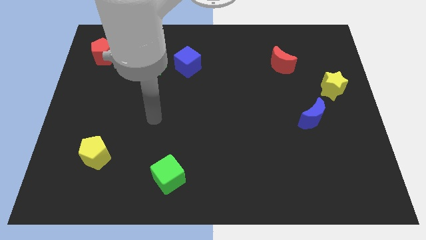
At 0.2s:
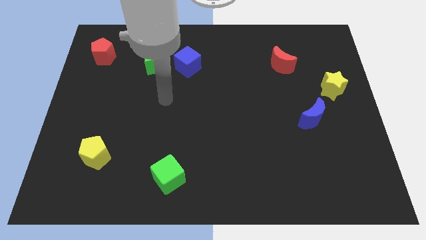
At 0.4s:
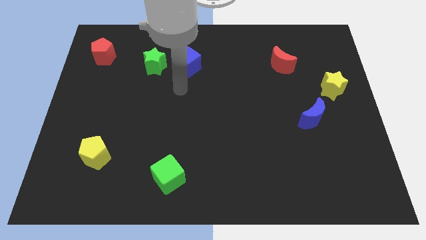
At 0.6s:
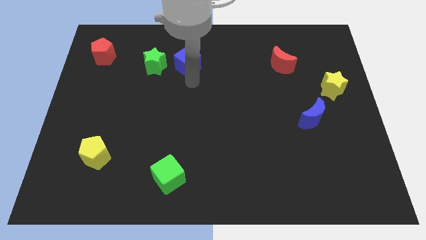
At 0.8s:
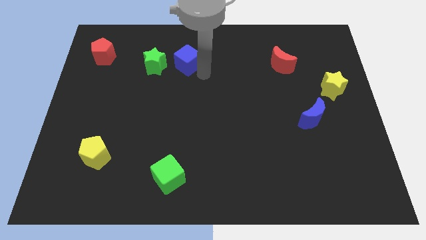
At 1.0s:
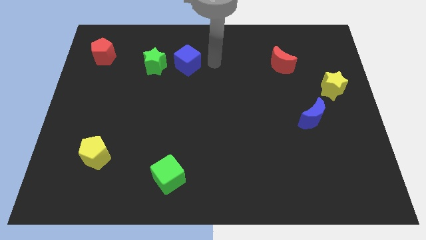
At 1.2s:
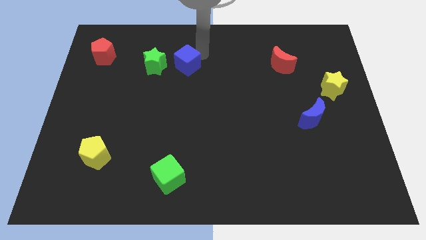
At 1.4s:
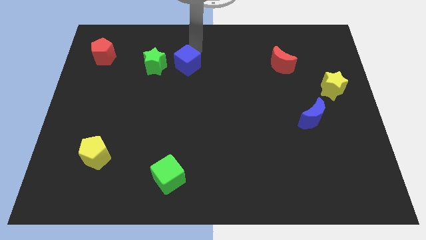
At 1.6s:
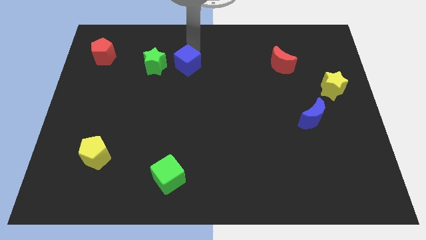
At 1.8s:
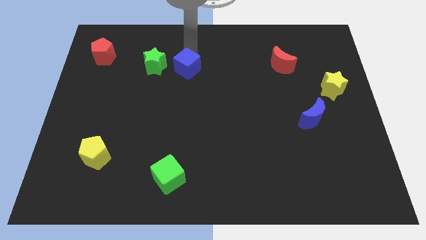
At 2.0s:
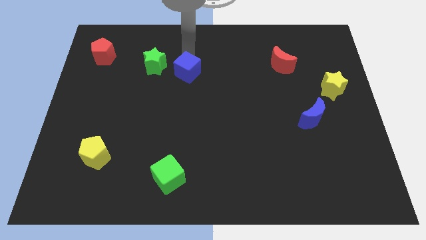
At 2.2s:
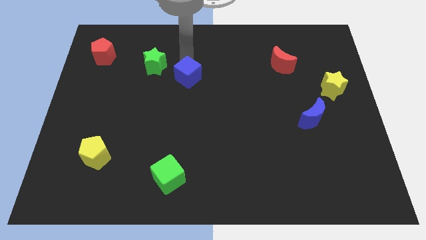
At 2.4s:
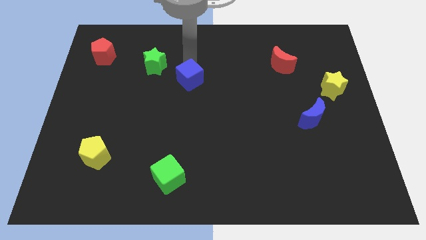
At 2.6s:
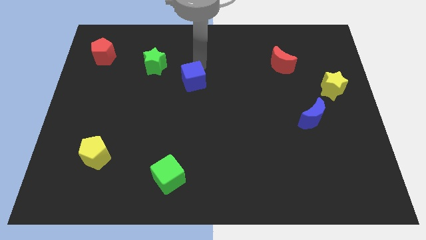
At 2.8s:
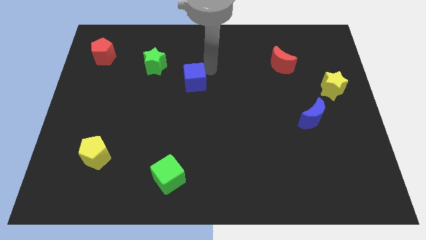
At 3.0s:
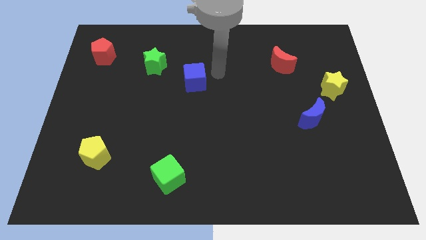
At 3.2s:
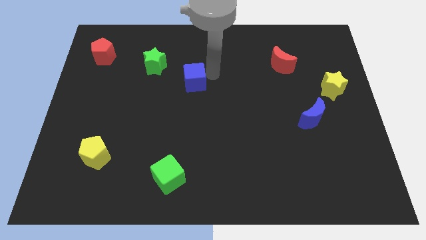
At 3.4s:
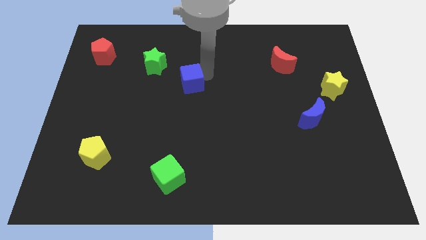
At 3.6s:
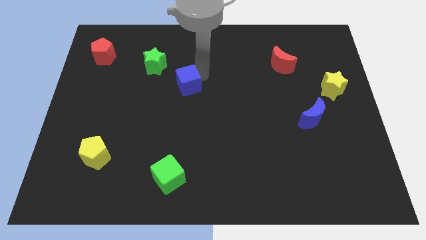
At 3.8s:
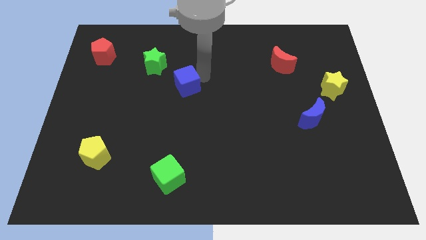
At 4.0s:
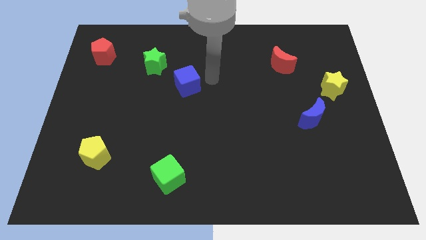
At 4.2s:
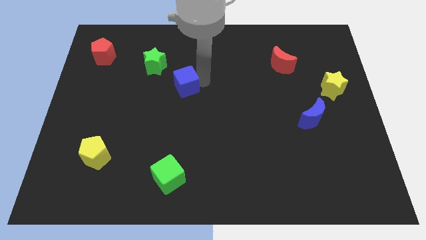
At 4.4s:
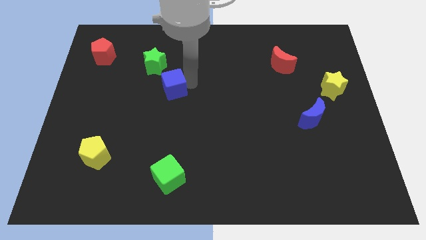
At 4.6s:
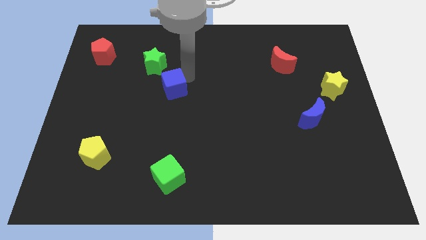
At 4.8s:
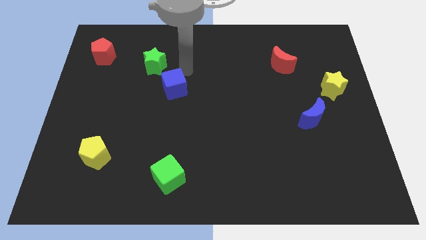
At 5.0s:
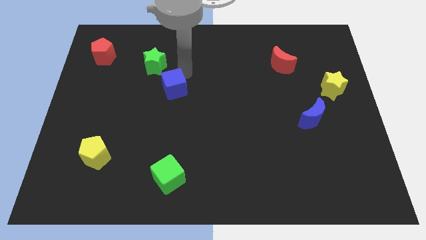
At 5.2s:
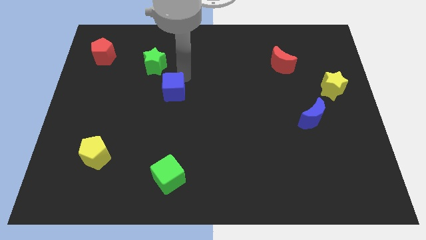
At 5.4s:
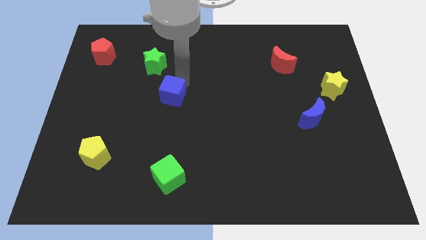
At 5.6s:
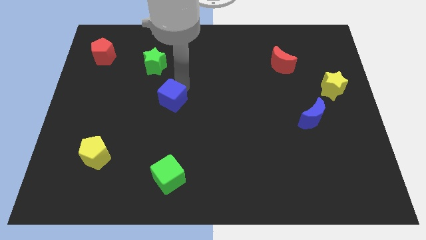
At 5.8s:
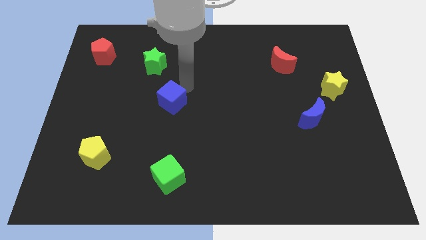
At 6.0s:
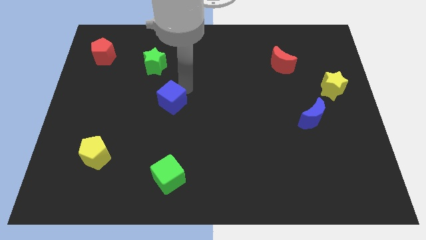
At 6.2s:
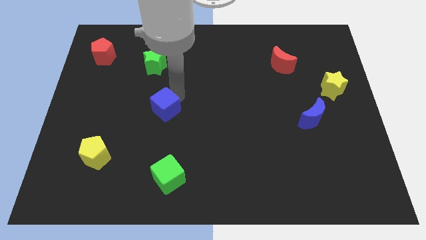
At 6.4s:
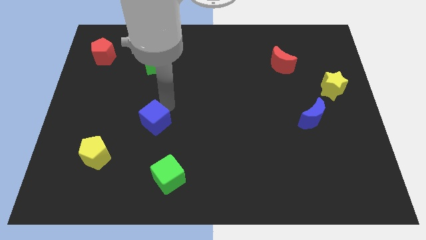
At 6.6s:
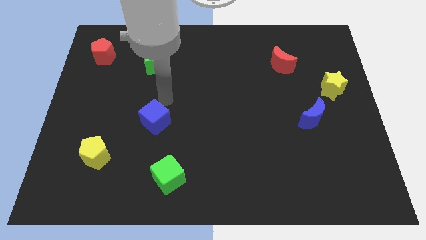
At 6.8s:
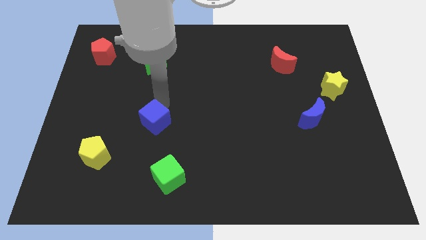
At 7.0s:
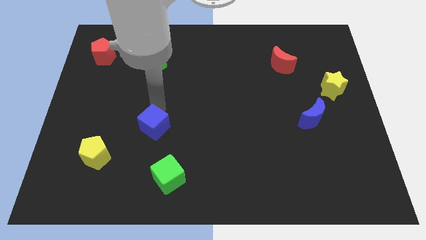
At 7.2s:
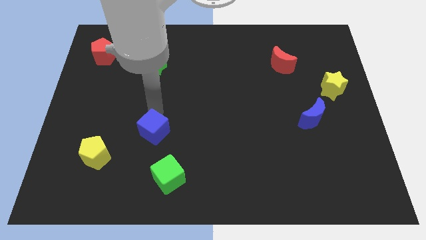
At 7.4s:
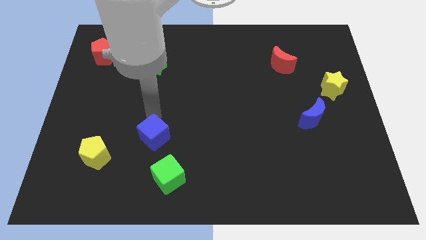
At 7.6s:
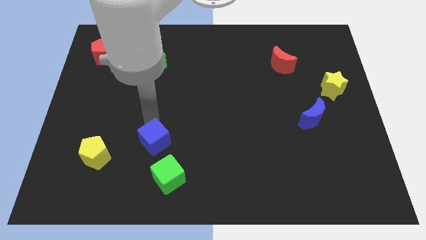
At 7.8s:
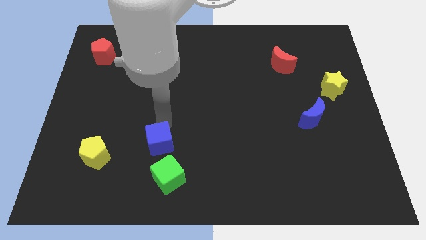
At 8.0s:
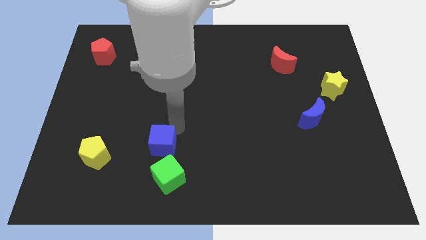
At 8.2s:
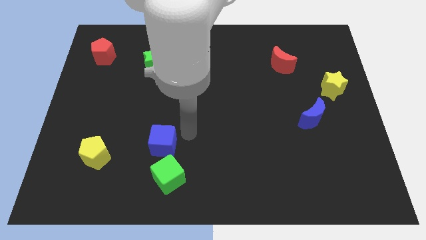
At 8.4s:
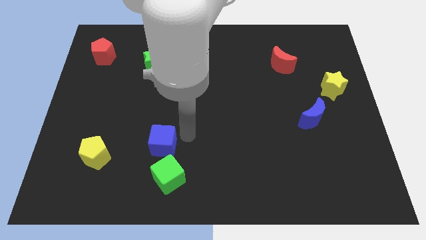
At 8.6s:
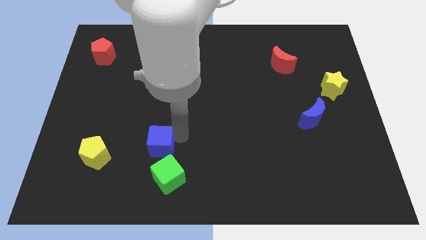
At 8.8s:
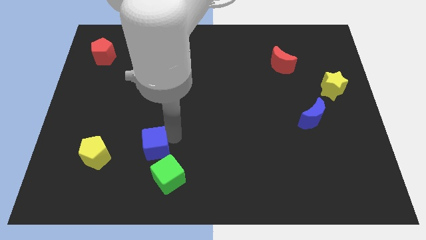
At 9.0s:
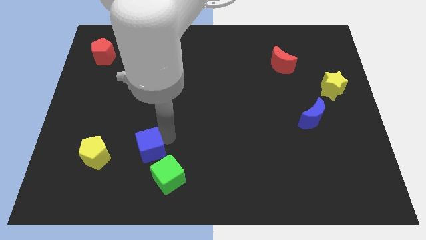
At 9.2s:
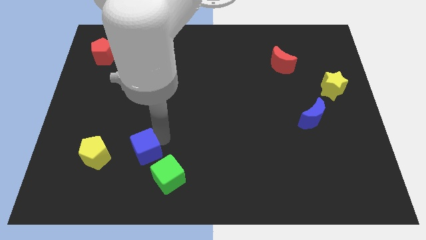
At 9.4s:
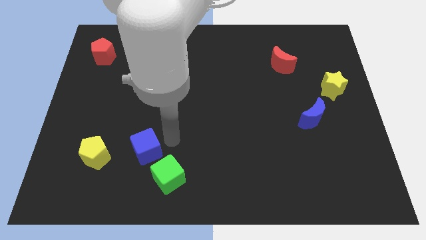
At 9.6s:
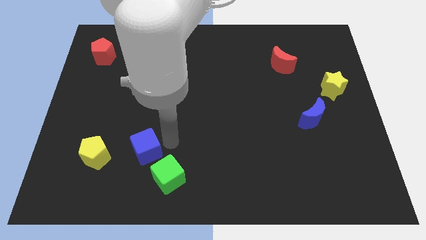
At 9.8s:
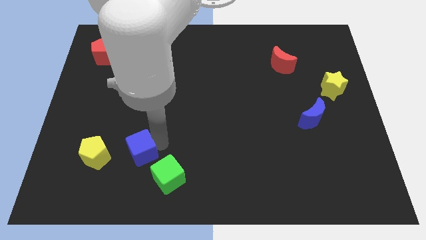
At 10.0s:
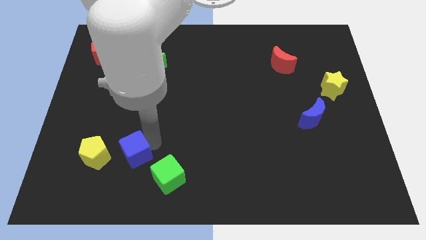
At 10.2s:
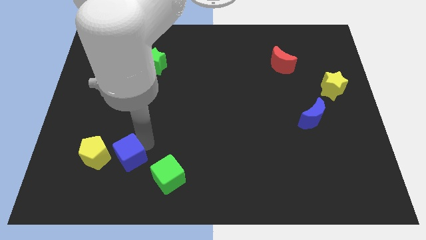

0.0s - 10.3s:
move the blue cube left of the green cube

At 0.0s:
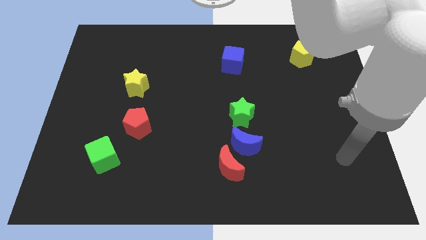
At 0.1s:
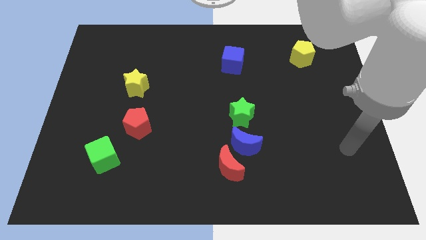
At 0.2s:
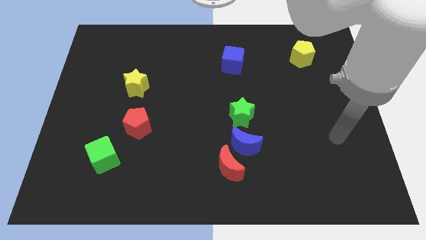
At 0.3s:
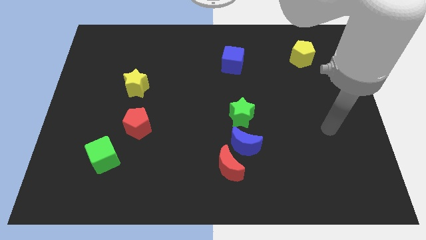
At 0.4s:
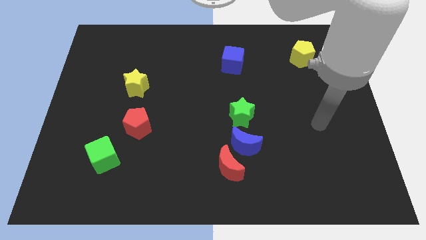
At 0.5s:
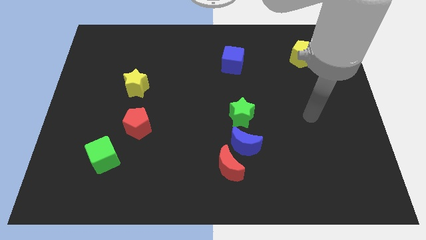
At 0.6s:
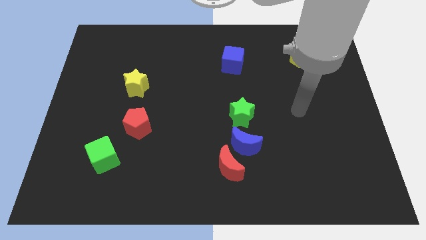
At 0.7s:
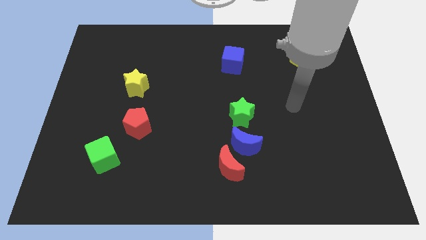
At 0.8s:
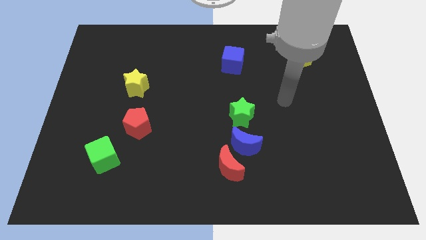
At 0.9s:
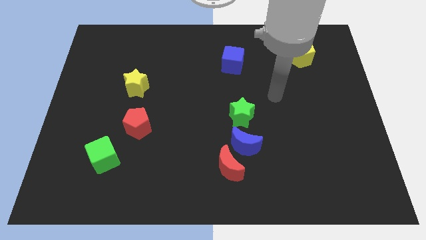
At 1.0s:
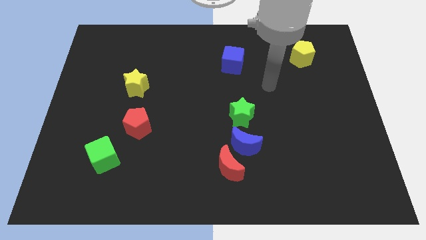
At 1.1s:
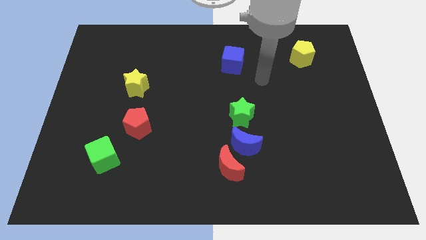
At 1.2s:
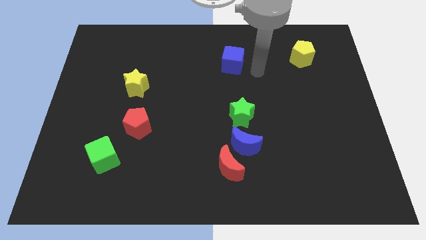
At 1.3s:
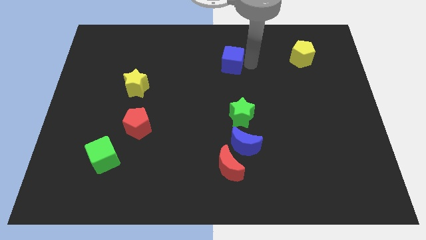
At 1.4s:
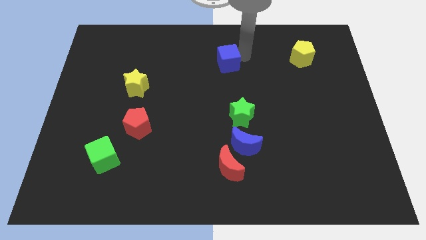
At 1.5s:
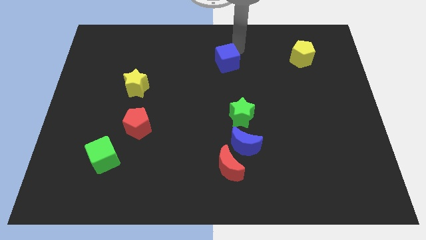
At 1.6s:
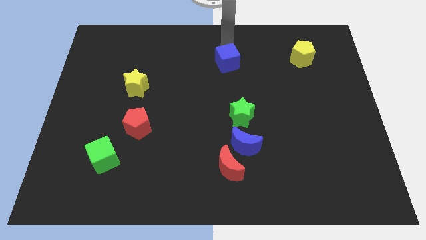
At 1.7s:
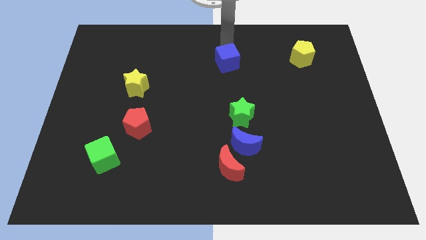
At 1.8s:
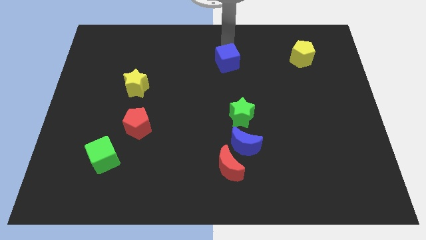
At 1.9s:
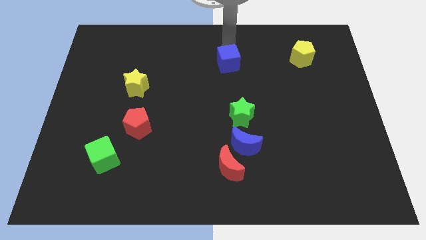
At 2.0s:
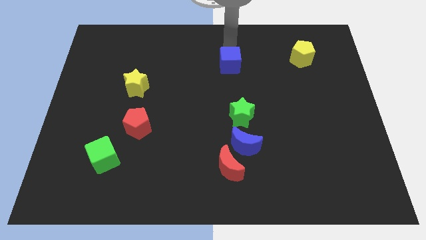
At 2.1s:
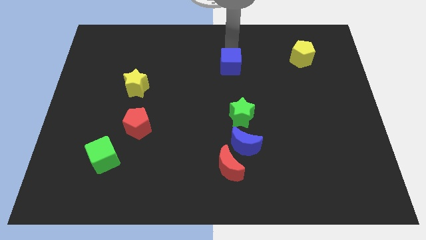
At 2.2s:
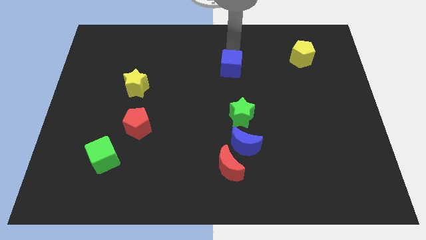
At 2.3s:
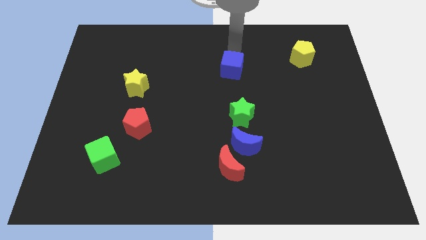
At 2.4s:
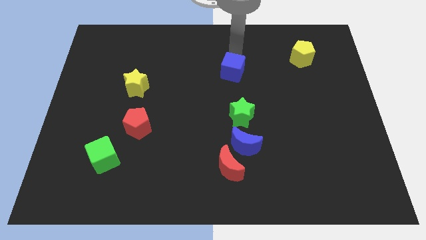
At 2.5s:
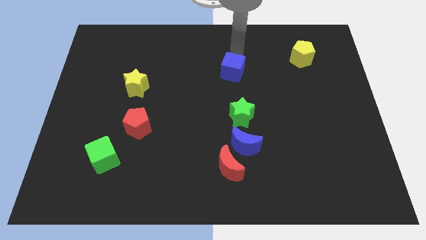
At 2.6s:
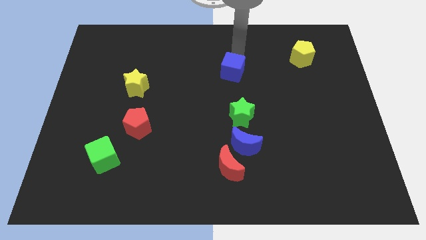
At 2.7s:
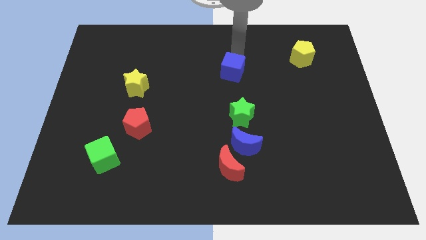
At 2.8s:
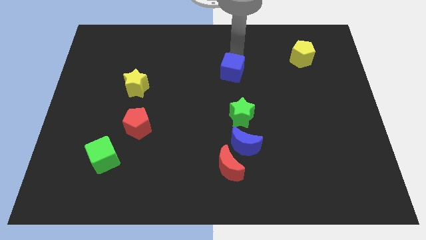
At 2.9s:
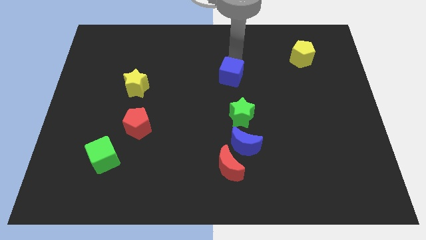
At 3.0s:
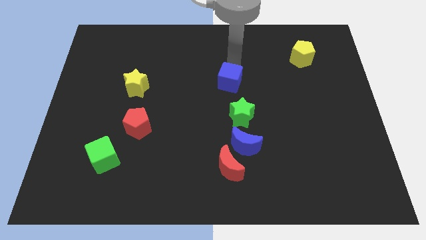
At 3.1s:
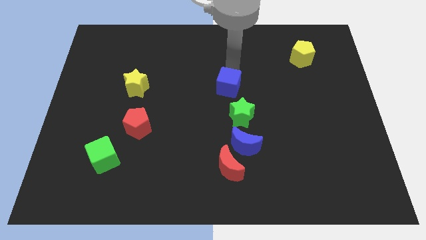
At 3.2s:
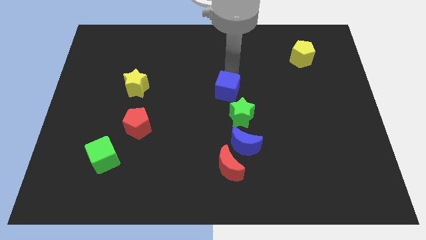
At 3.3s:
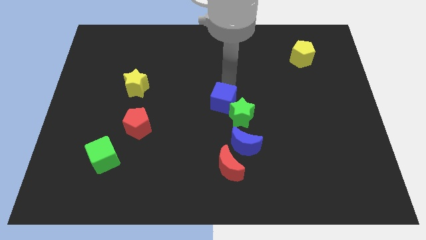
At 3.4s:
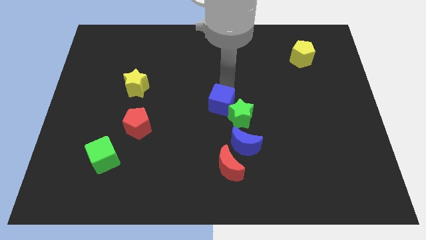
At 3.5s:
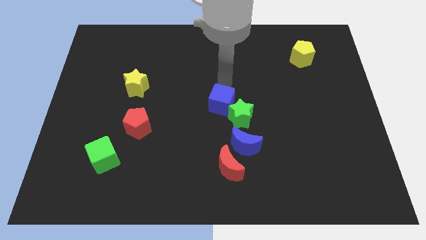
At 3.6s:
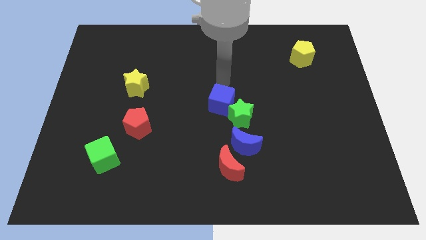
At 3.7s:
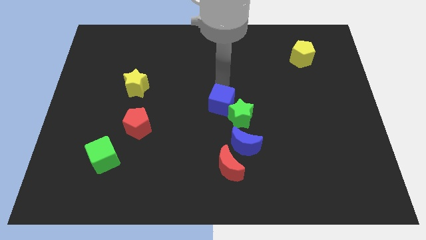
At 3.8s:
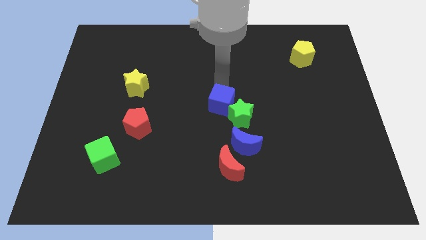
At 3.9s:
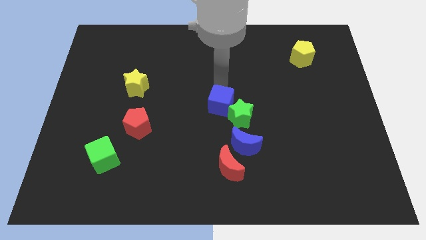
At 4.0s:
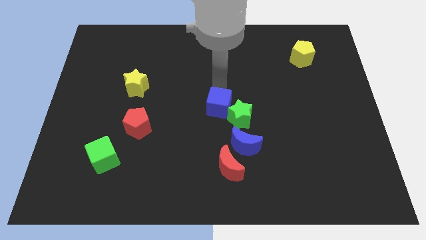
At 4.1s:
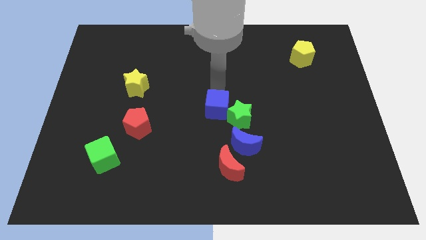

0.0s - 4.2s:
move the blue cube diagonally up and to the left of the blue moon
